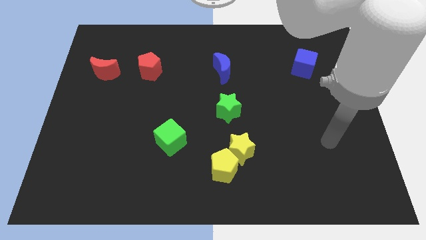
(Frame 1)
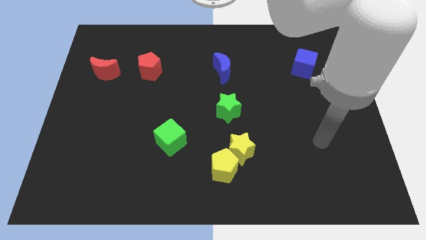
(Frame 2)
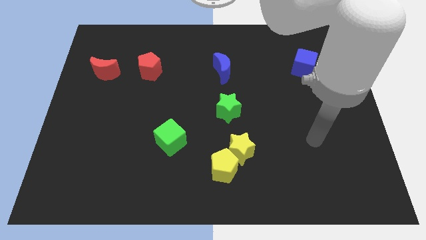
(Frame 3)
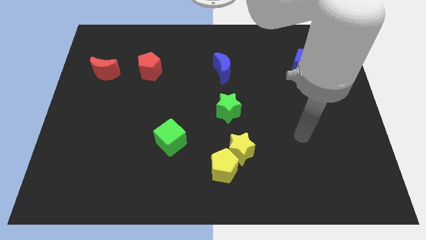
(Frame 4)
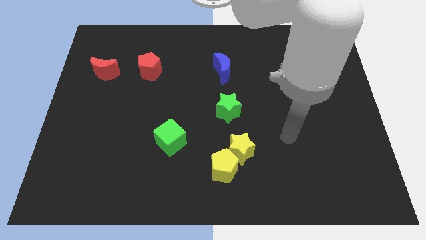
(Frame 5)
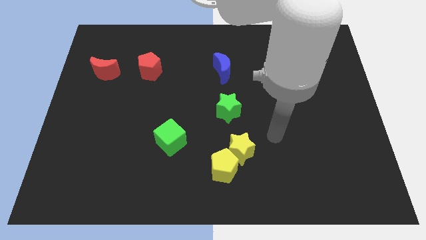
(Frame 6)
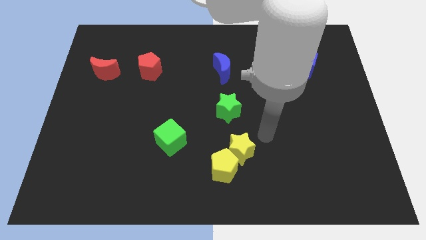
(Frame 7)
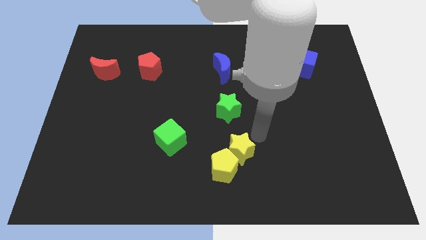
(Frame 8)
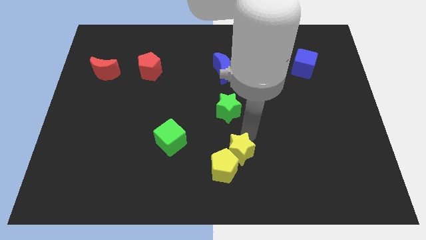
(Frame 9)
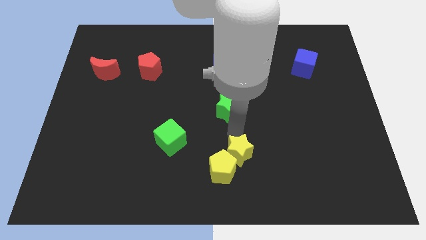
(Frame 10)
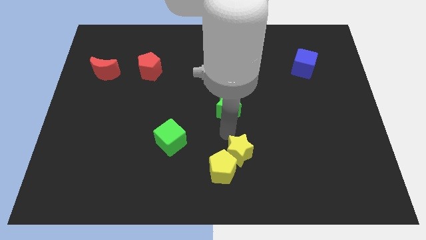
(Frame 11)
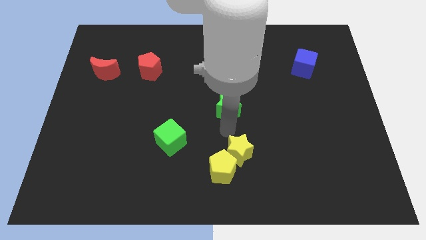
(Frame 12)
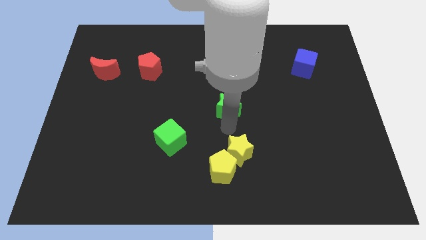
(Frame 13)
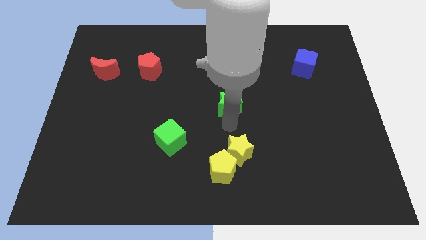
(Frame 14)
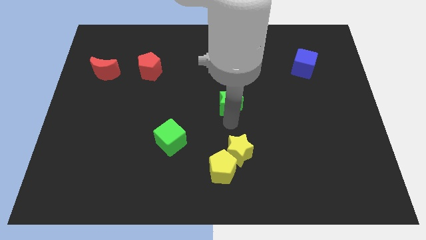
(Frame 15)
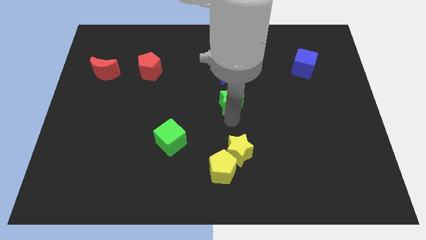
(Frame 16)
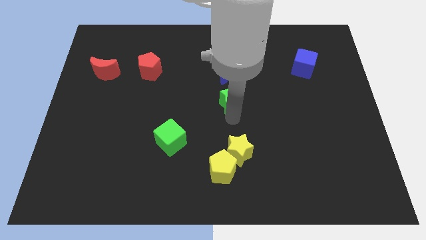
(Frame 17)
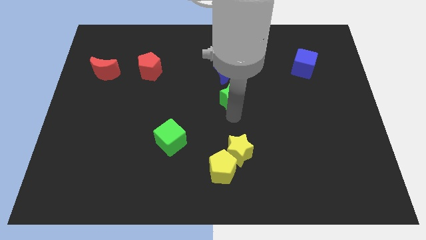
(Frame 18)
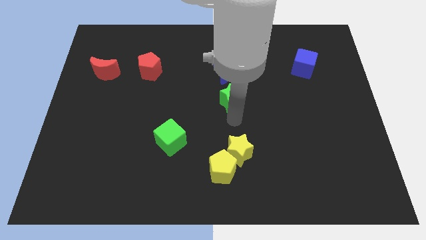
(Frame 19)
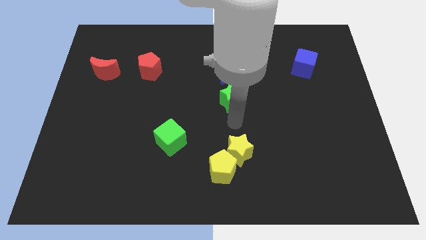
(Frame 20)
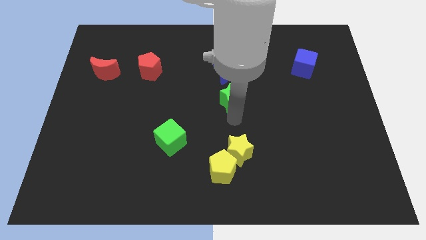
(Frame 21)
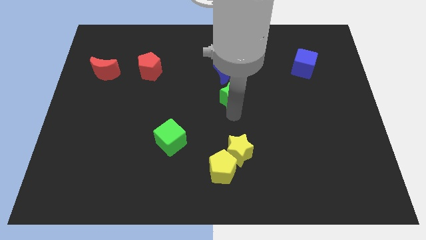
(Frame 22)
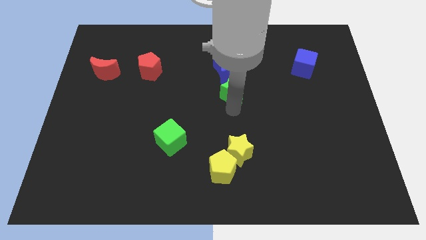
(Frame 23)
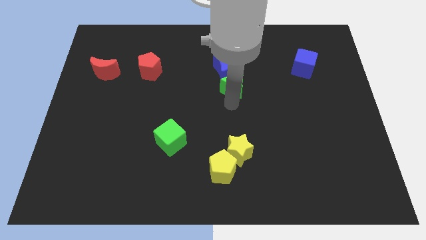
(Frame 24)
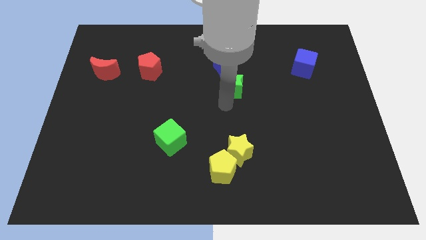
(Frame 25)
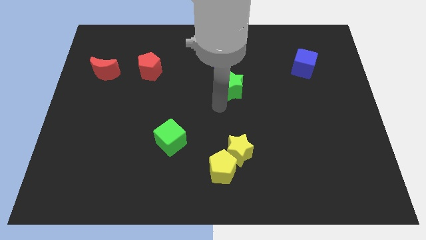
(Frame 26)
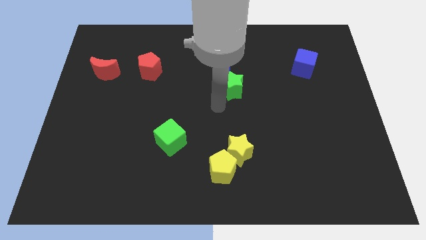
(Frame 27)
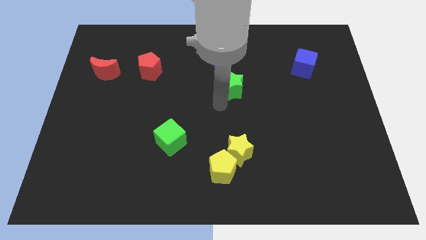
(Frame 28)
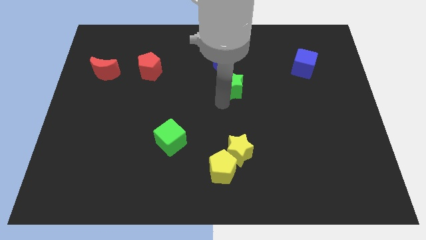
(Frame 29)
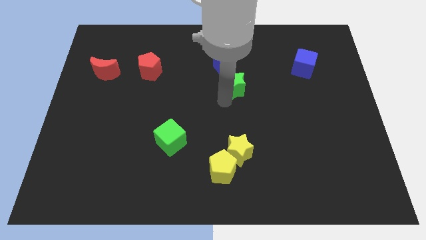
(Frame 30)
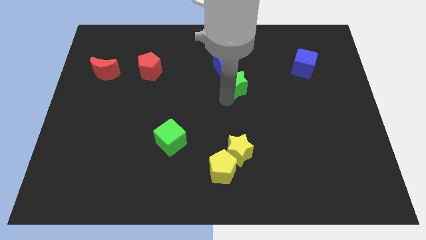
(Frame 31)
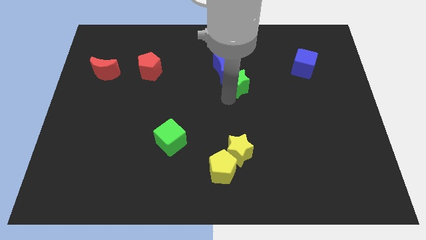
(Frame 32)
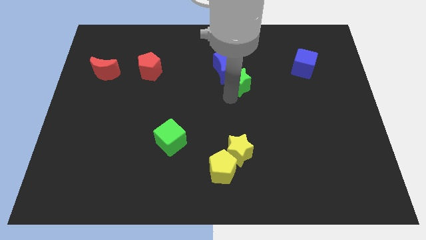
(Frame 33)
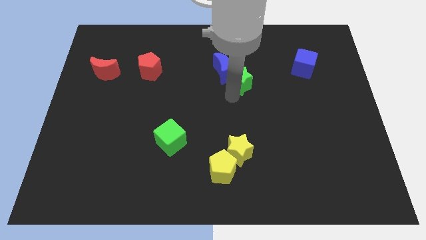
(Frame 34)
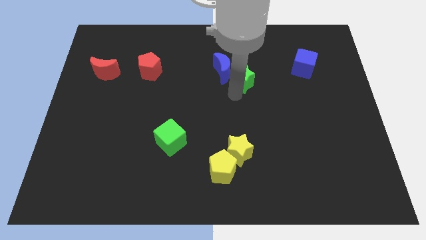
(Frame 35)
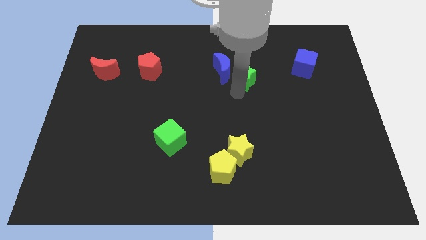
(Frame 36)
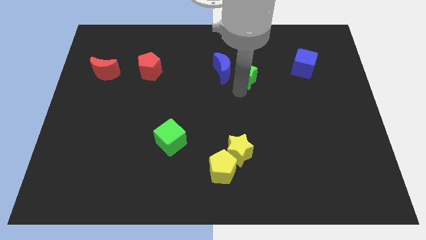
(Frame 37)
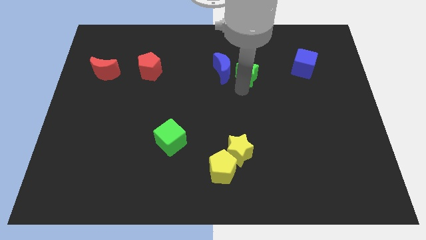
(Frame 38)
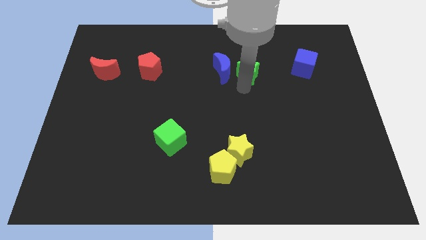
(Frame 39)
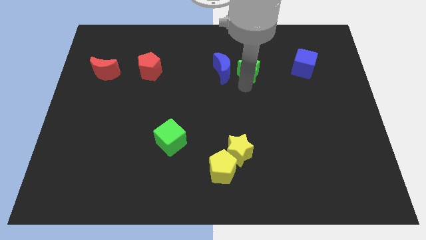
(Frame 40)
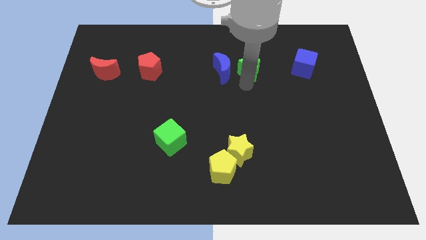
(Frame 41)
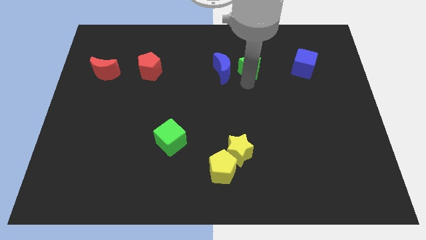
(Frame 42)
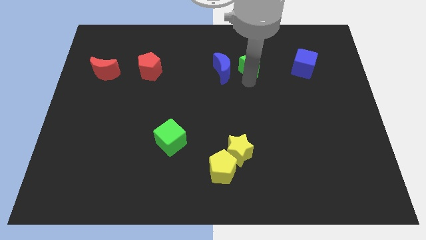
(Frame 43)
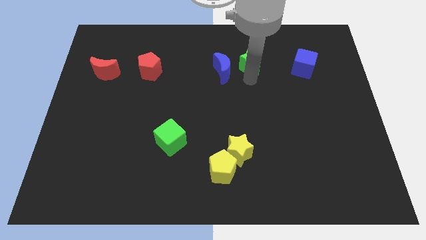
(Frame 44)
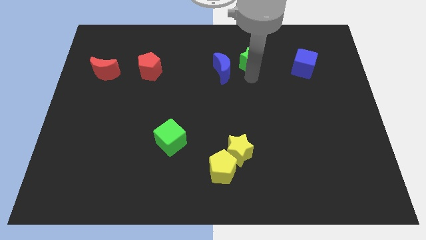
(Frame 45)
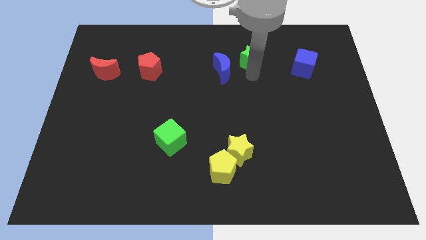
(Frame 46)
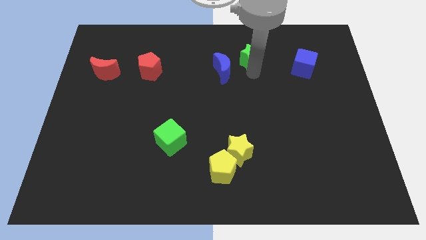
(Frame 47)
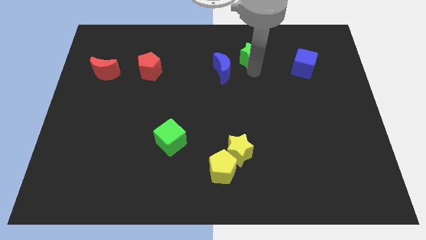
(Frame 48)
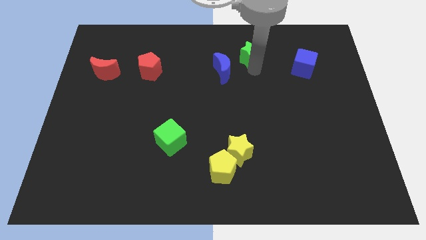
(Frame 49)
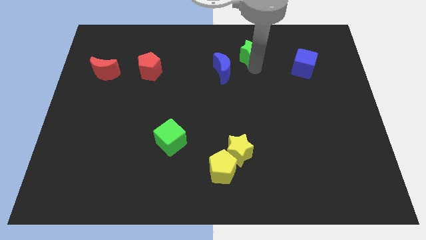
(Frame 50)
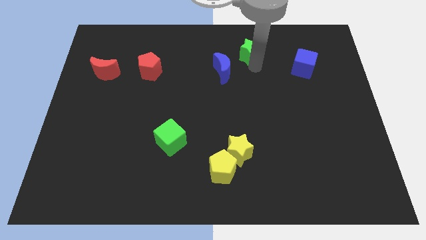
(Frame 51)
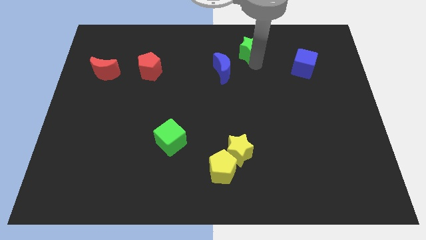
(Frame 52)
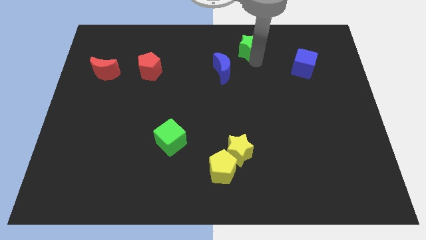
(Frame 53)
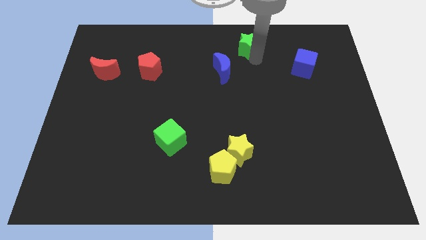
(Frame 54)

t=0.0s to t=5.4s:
push the green star to the top

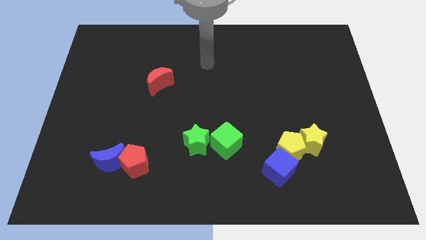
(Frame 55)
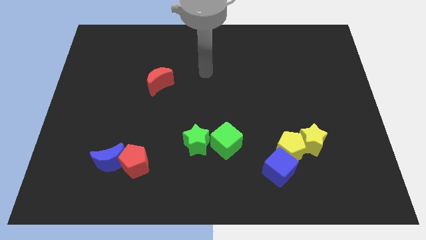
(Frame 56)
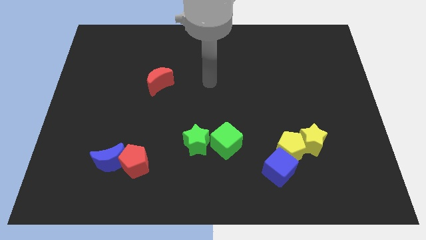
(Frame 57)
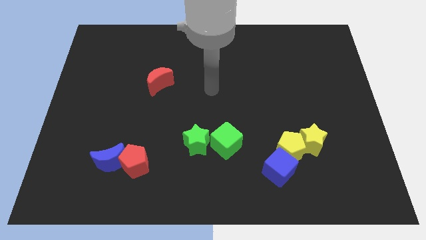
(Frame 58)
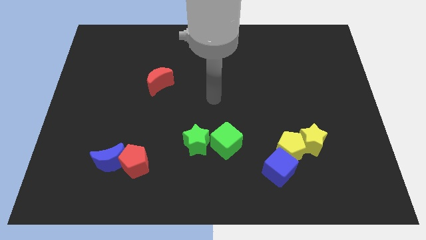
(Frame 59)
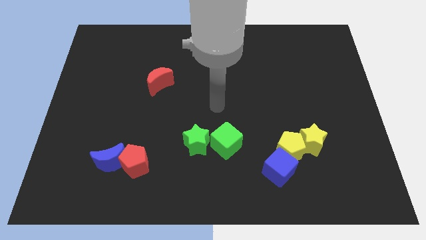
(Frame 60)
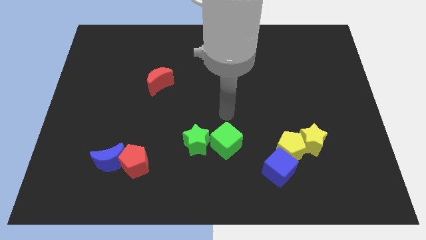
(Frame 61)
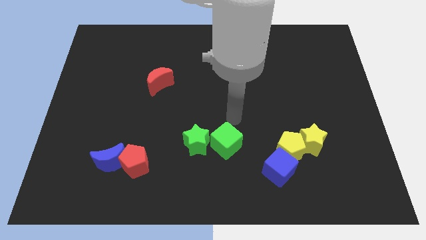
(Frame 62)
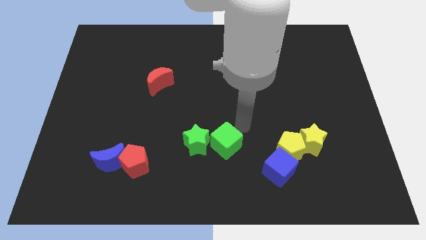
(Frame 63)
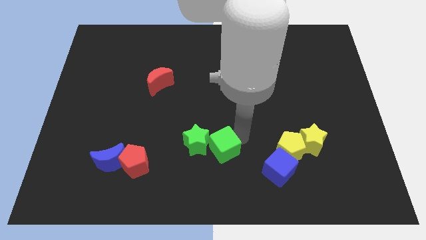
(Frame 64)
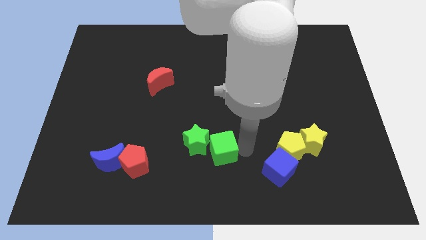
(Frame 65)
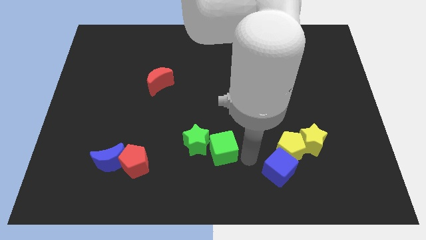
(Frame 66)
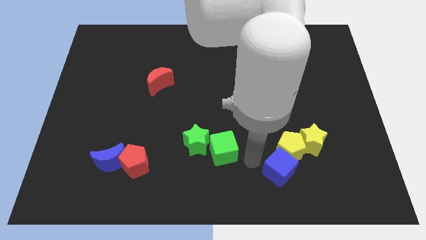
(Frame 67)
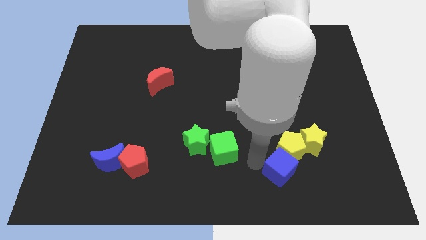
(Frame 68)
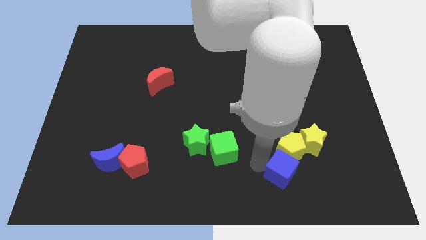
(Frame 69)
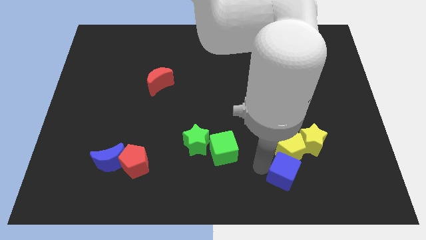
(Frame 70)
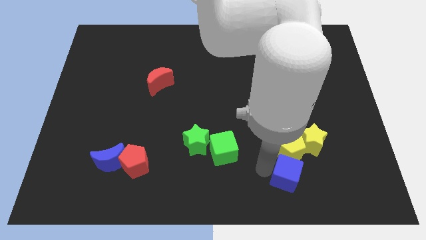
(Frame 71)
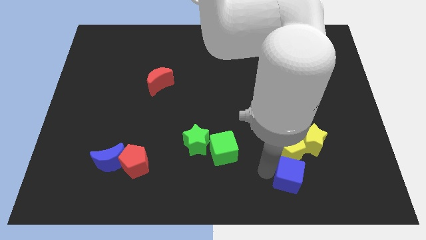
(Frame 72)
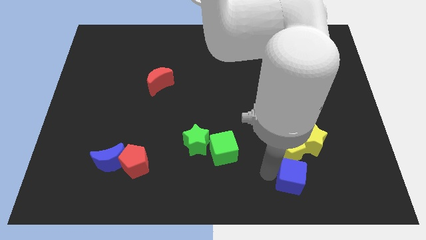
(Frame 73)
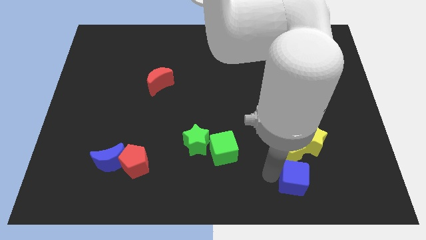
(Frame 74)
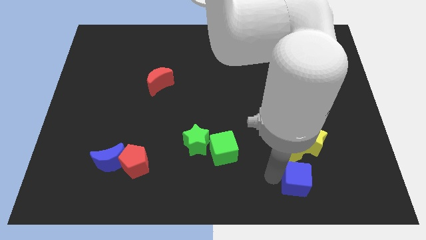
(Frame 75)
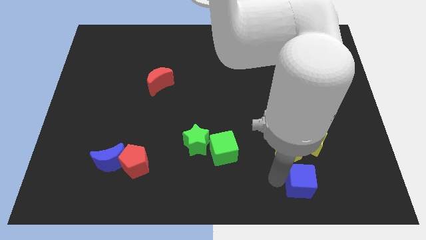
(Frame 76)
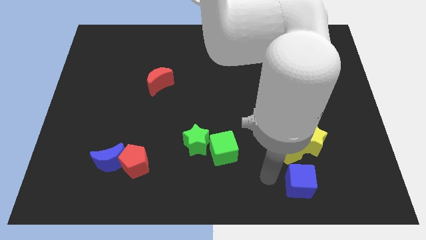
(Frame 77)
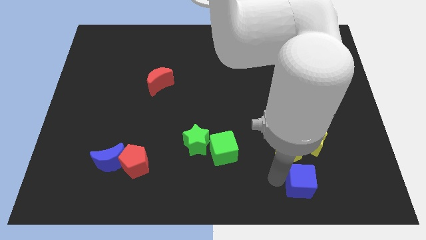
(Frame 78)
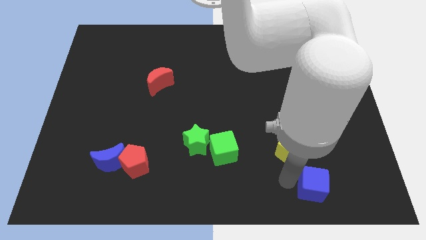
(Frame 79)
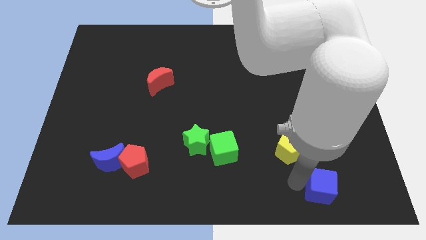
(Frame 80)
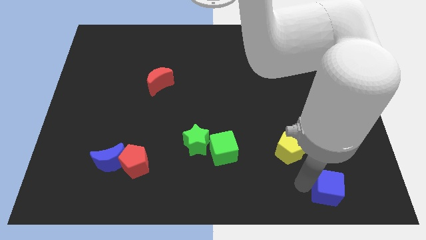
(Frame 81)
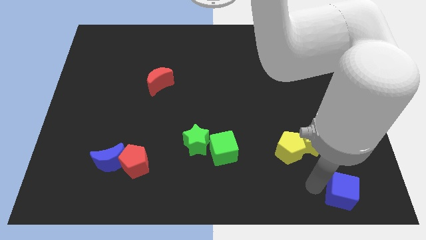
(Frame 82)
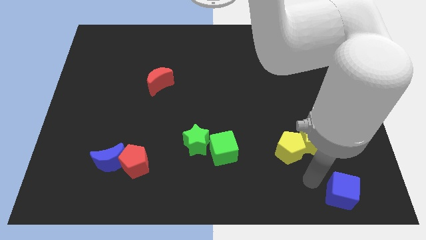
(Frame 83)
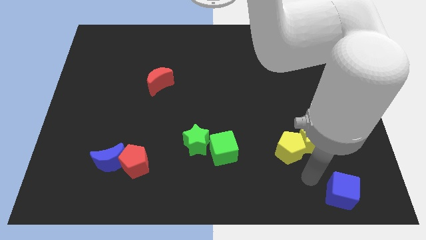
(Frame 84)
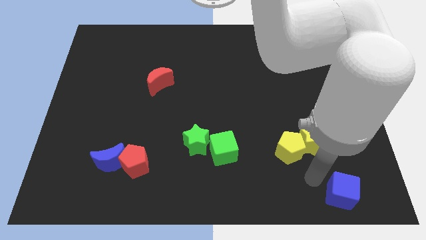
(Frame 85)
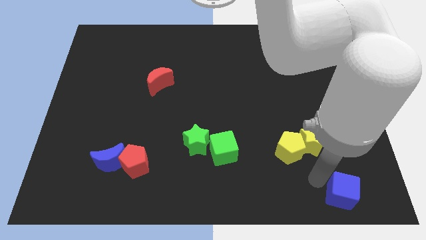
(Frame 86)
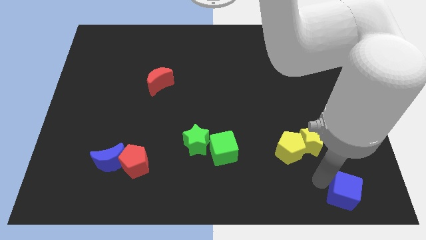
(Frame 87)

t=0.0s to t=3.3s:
move the blue cube to the bottom right
